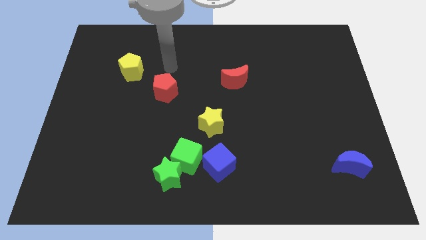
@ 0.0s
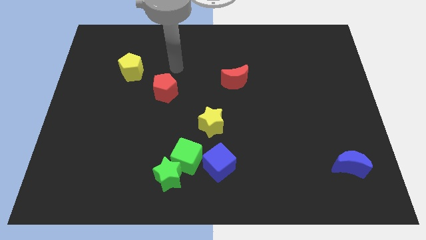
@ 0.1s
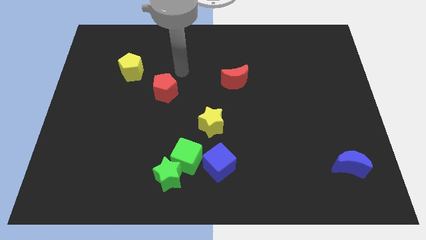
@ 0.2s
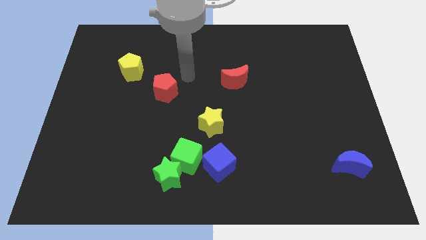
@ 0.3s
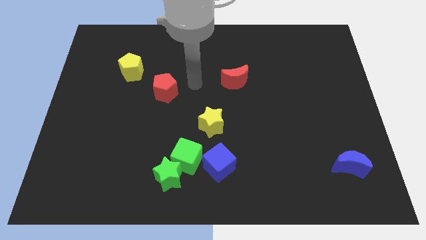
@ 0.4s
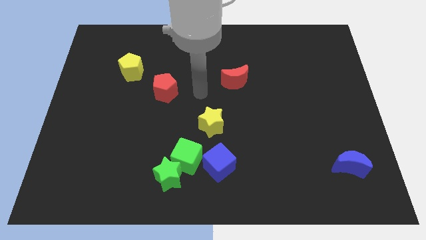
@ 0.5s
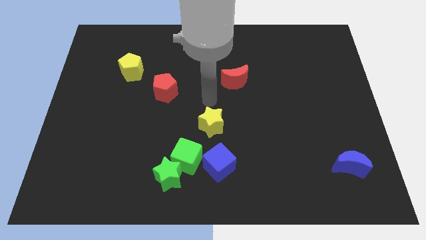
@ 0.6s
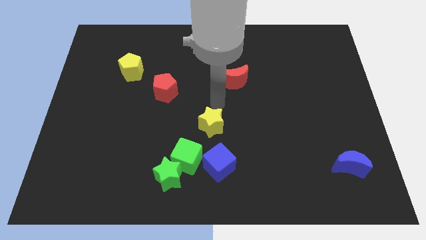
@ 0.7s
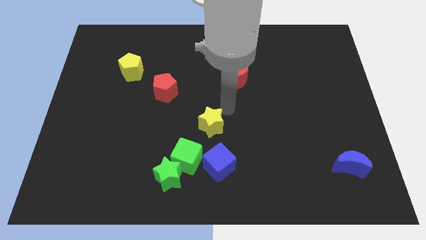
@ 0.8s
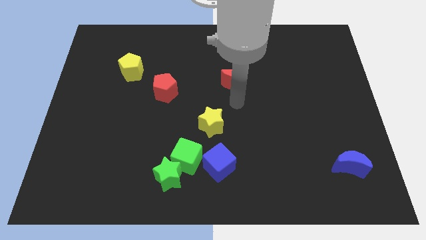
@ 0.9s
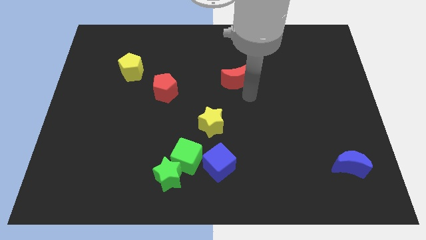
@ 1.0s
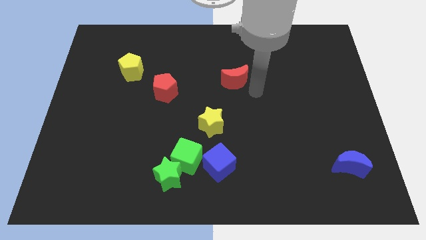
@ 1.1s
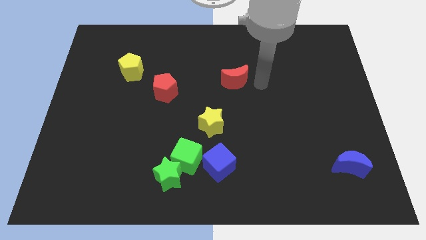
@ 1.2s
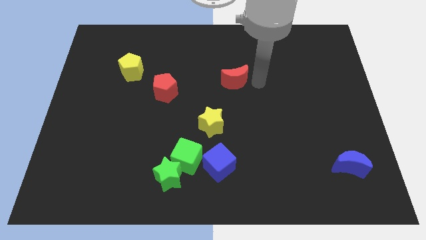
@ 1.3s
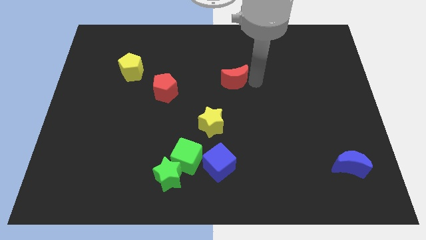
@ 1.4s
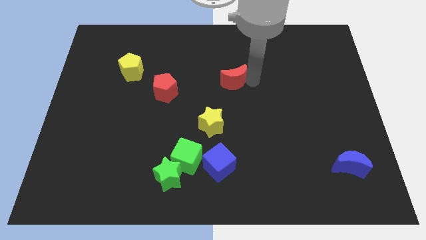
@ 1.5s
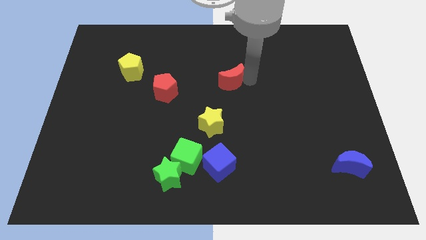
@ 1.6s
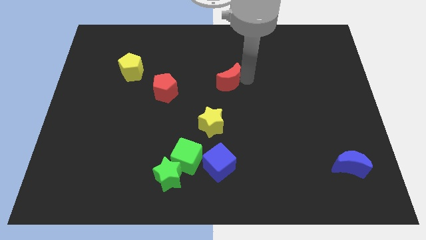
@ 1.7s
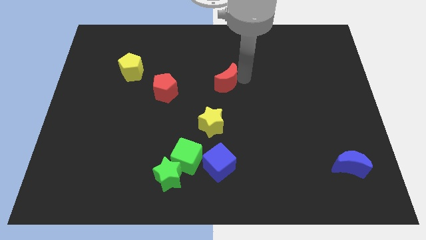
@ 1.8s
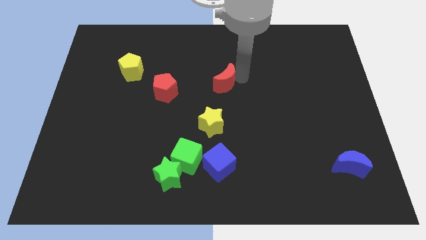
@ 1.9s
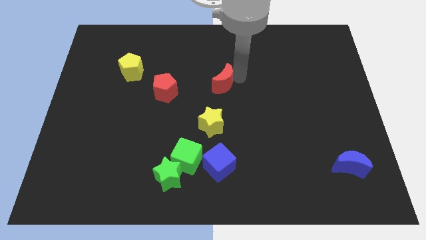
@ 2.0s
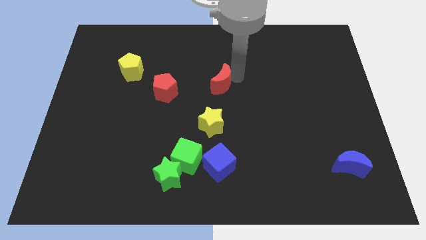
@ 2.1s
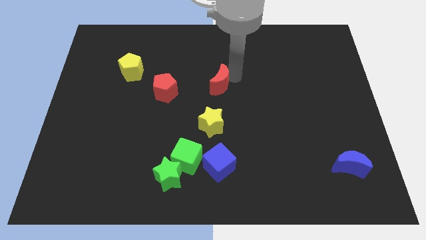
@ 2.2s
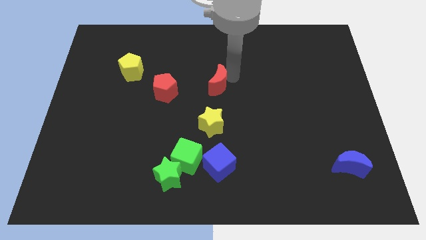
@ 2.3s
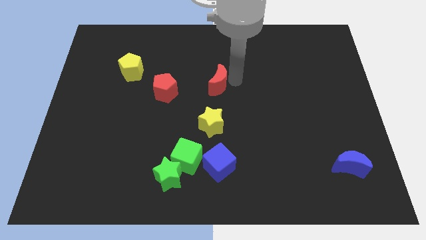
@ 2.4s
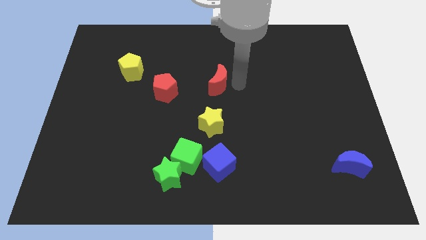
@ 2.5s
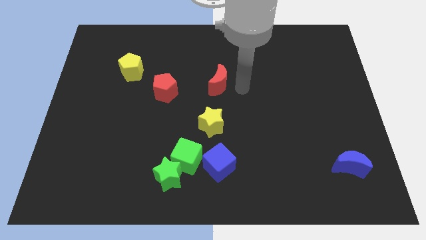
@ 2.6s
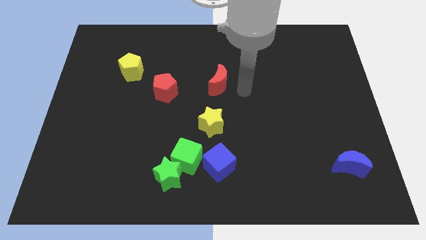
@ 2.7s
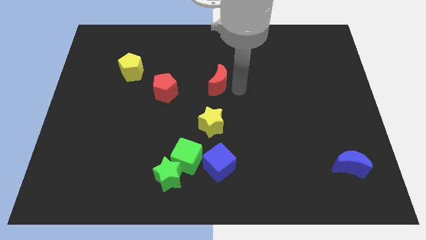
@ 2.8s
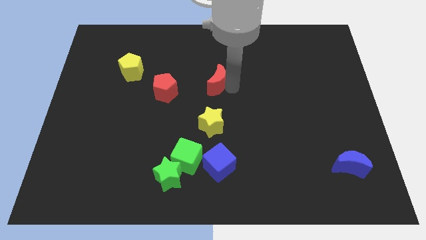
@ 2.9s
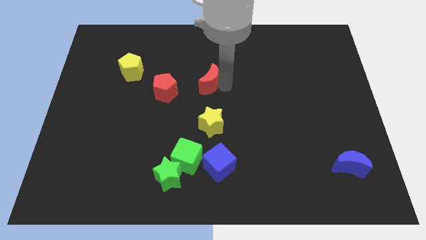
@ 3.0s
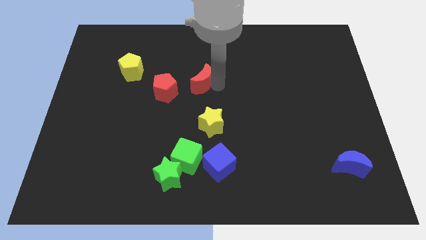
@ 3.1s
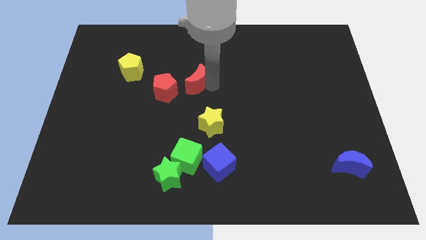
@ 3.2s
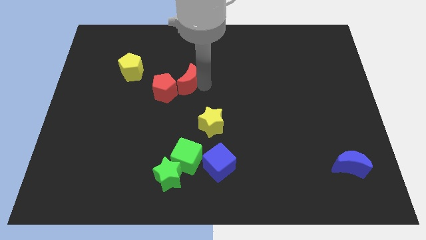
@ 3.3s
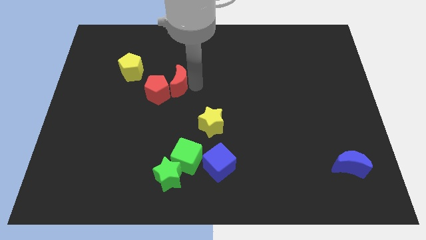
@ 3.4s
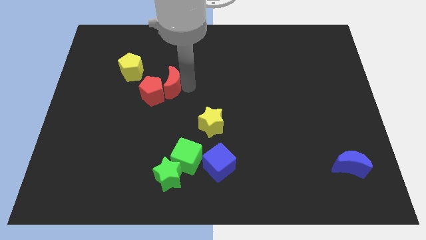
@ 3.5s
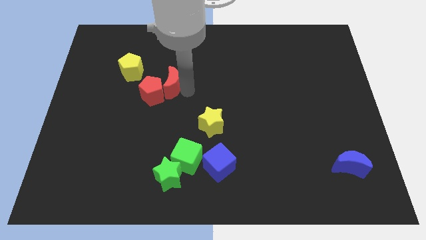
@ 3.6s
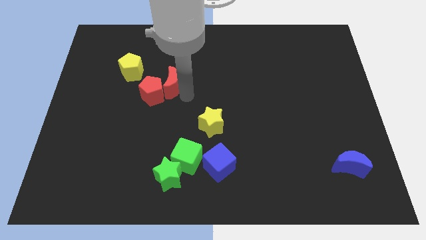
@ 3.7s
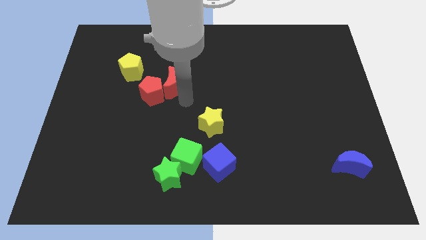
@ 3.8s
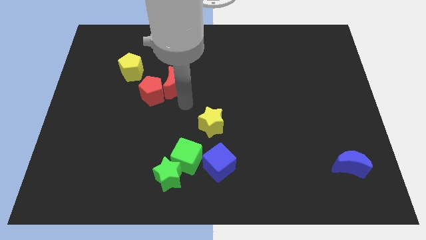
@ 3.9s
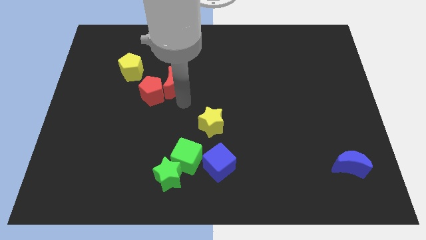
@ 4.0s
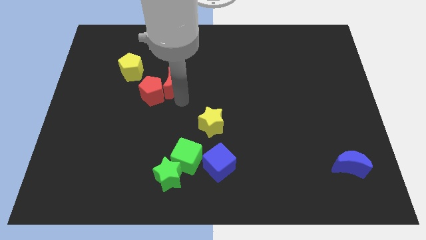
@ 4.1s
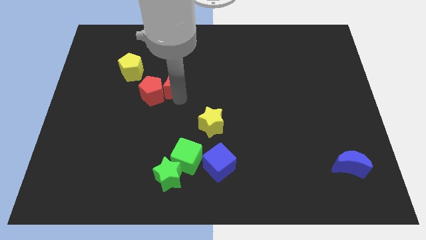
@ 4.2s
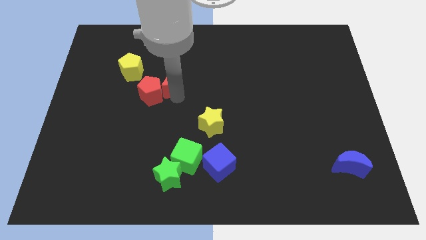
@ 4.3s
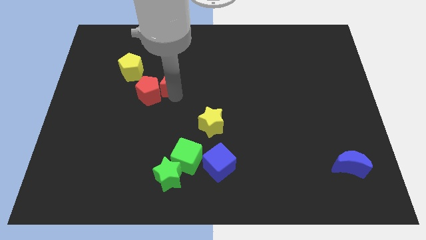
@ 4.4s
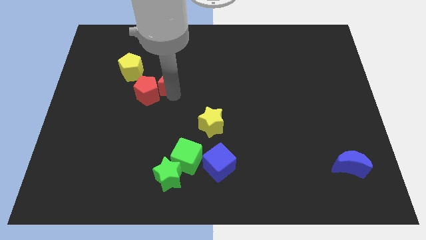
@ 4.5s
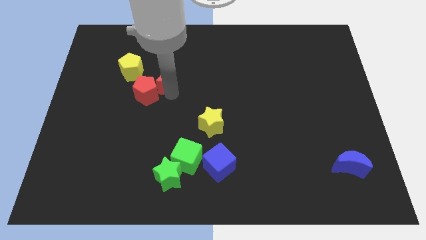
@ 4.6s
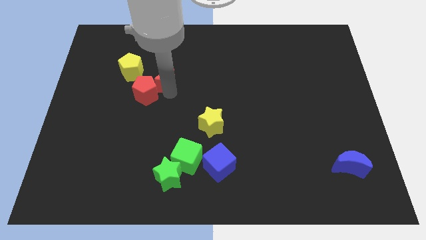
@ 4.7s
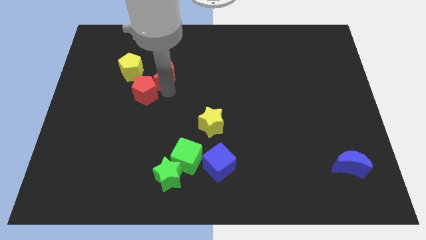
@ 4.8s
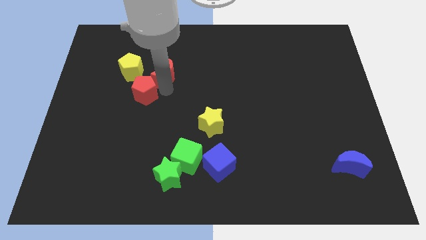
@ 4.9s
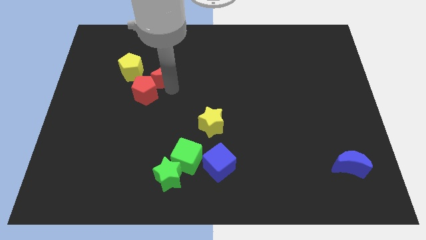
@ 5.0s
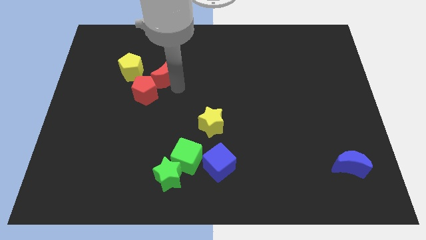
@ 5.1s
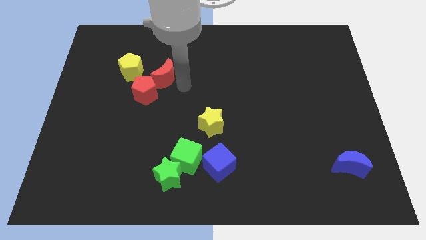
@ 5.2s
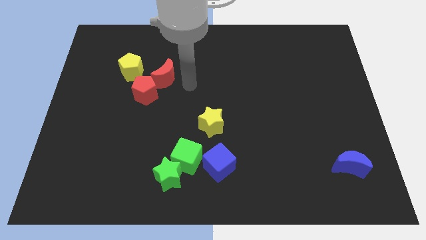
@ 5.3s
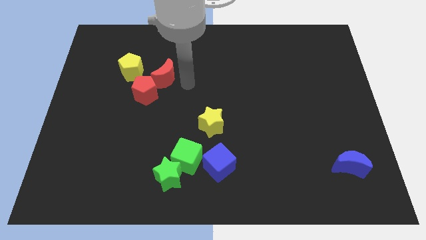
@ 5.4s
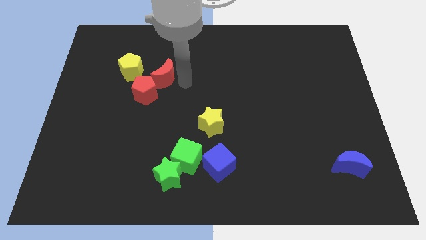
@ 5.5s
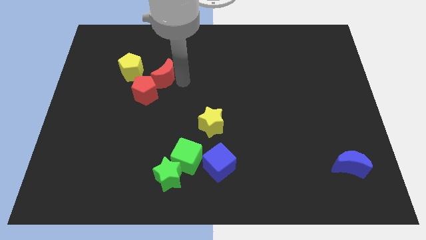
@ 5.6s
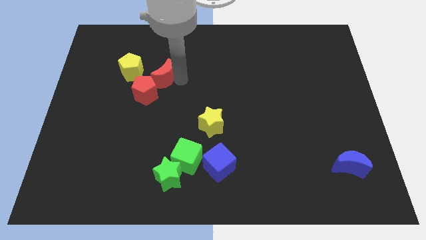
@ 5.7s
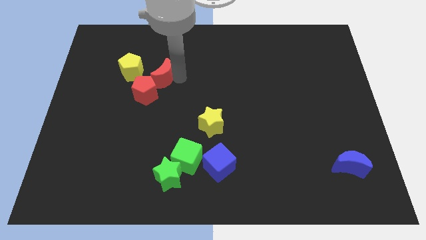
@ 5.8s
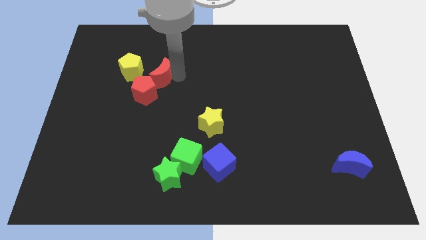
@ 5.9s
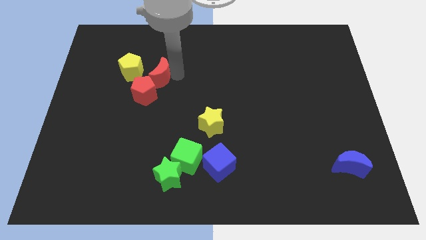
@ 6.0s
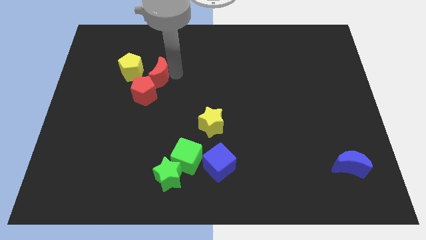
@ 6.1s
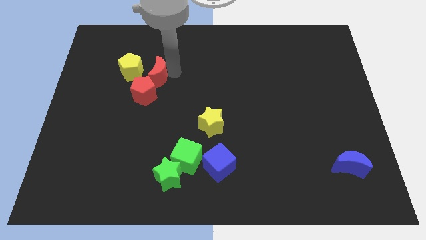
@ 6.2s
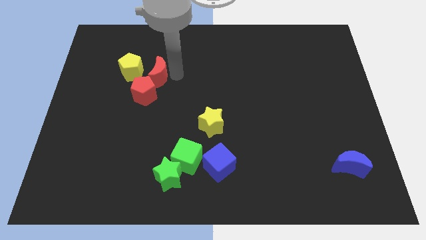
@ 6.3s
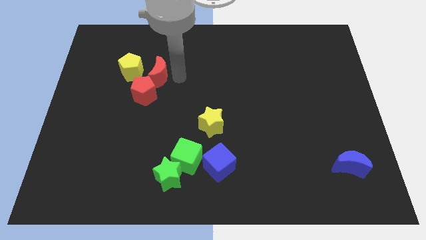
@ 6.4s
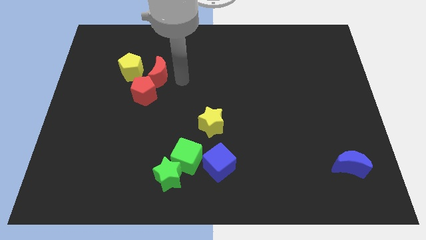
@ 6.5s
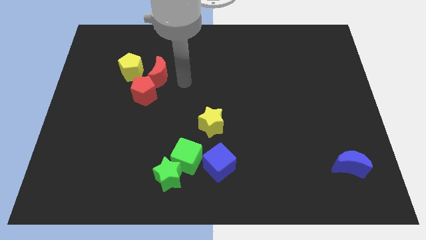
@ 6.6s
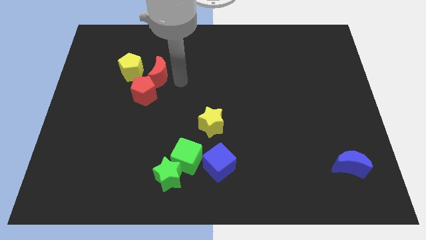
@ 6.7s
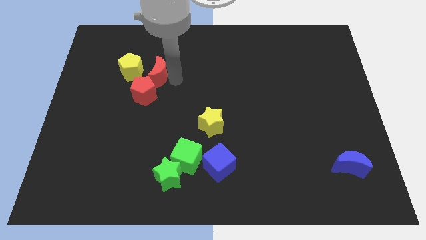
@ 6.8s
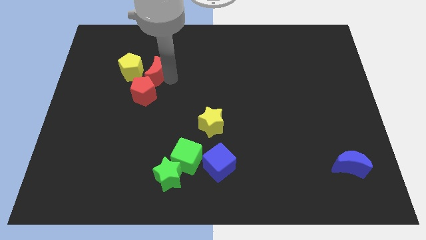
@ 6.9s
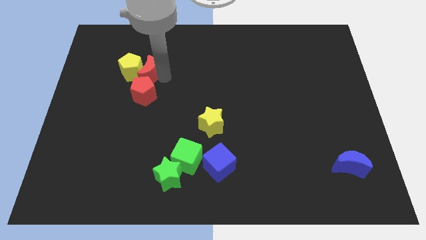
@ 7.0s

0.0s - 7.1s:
push the red moon close to the yellow pentagon
